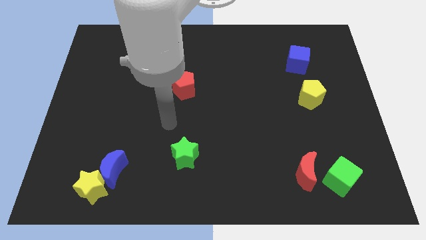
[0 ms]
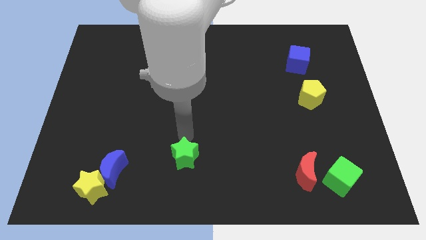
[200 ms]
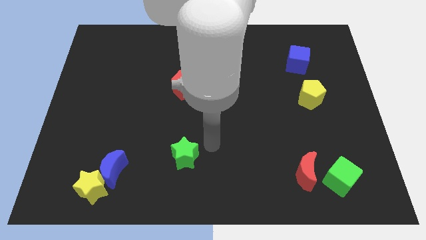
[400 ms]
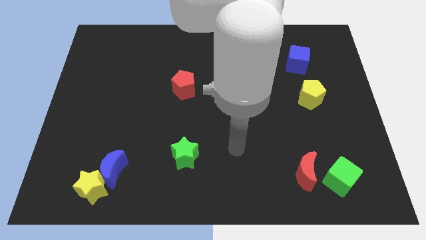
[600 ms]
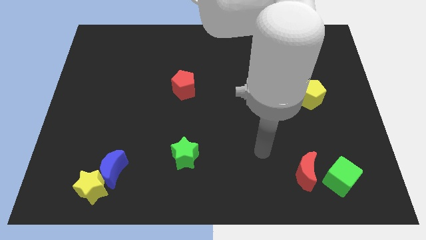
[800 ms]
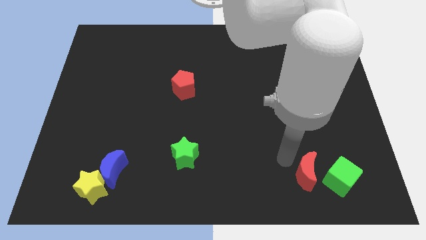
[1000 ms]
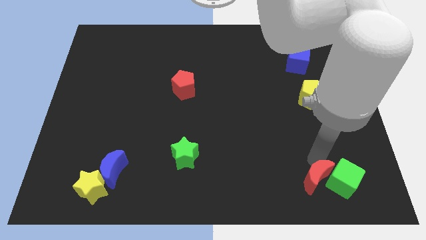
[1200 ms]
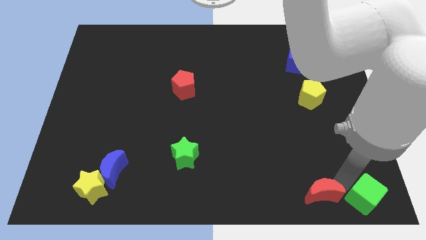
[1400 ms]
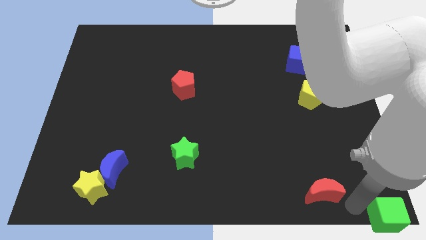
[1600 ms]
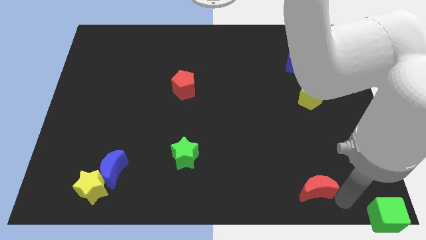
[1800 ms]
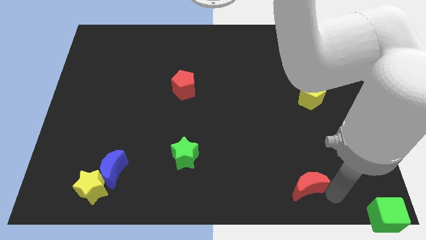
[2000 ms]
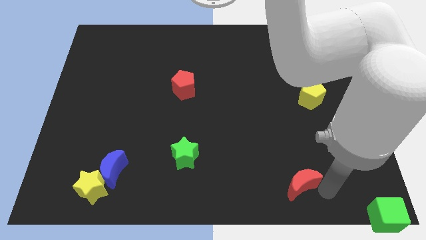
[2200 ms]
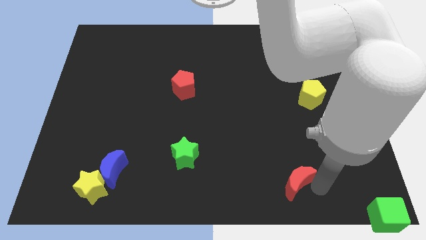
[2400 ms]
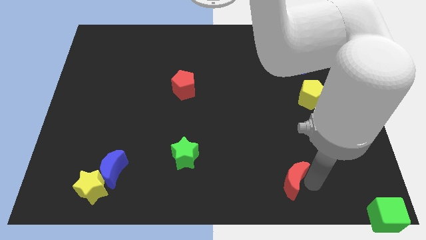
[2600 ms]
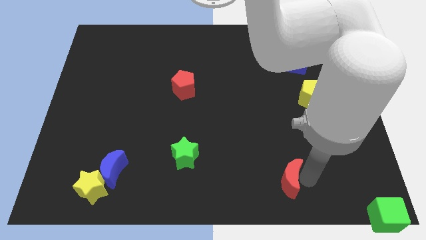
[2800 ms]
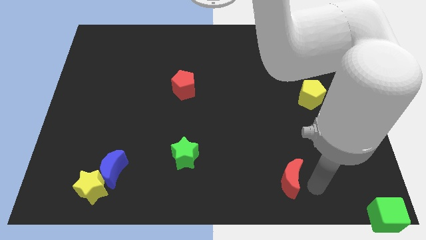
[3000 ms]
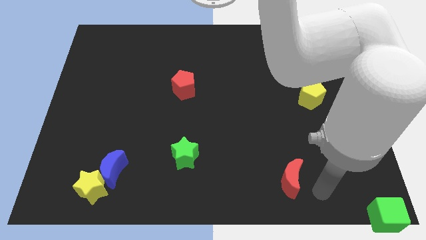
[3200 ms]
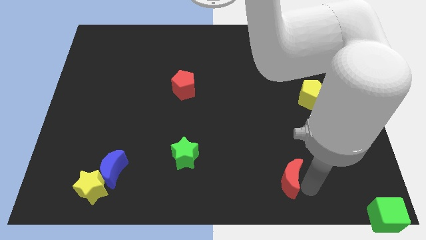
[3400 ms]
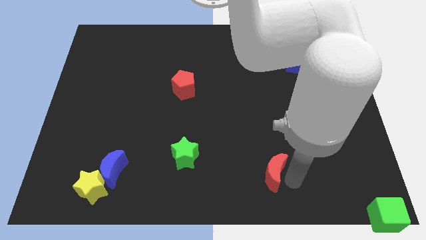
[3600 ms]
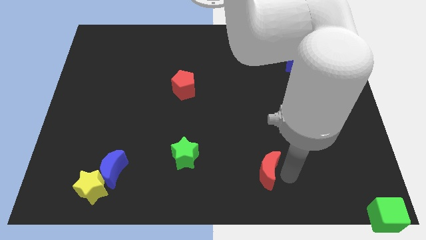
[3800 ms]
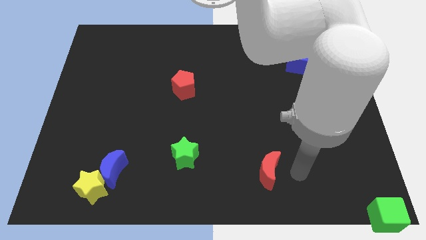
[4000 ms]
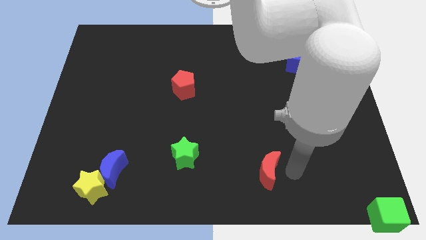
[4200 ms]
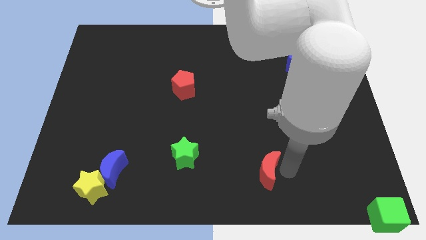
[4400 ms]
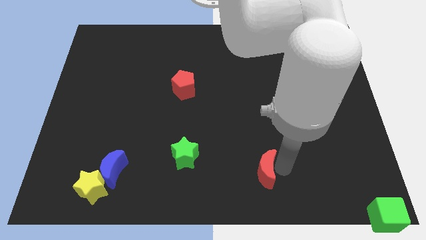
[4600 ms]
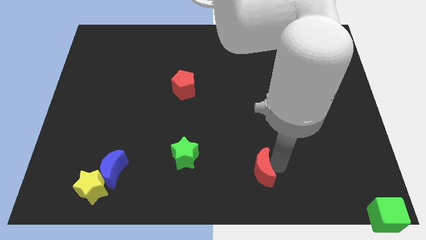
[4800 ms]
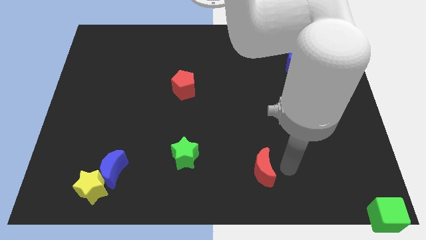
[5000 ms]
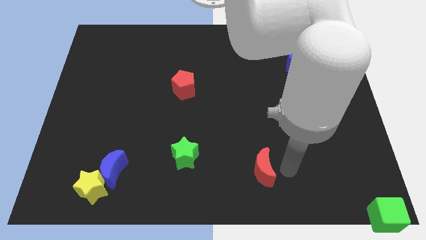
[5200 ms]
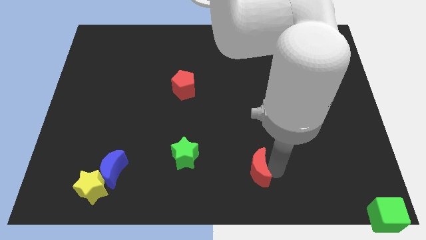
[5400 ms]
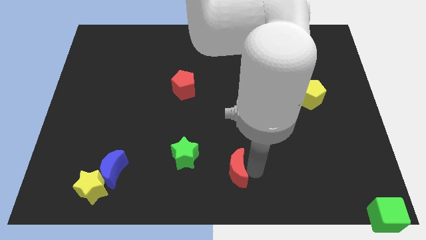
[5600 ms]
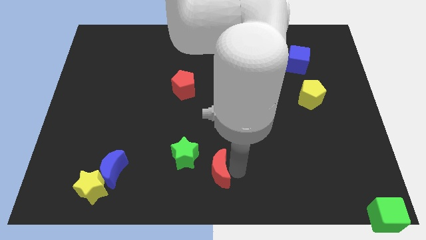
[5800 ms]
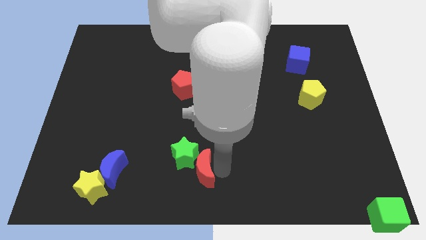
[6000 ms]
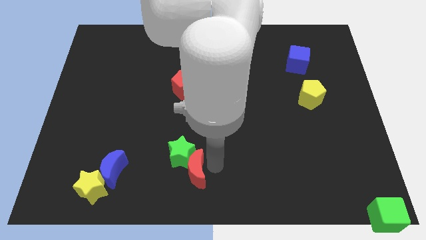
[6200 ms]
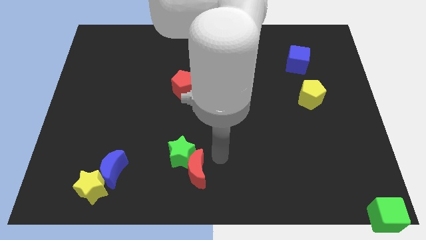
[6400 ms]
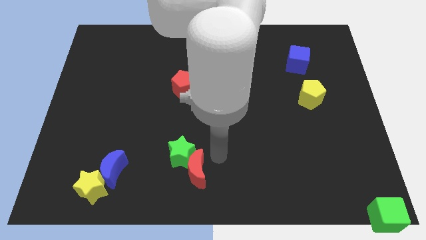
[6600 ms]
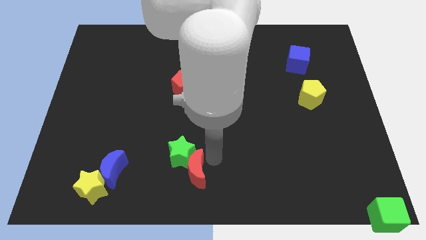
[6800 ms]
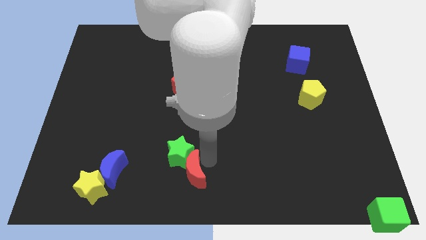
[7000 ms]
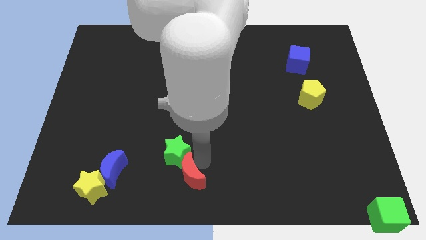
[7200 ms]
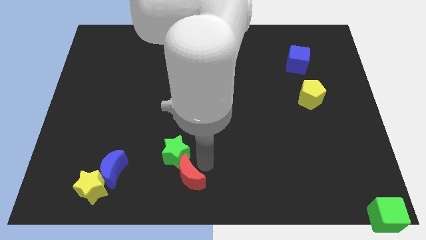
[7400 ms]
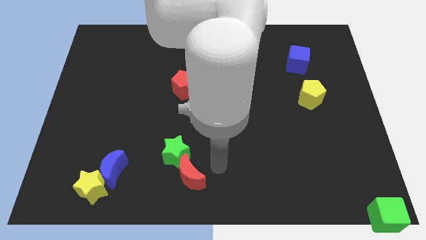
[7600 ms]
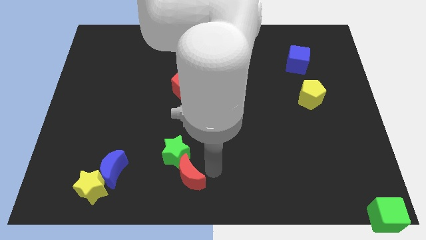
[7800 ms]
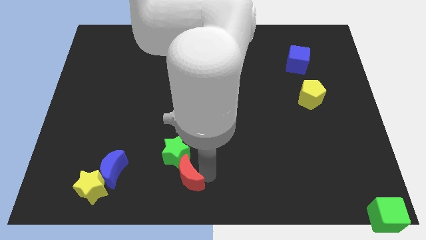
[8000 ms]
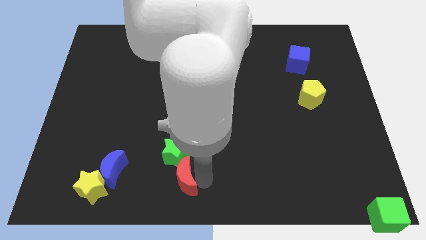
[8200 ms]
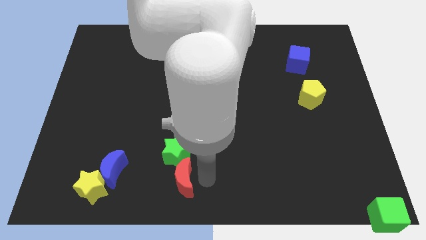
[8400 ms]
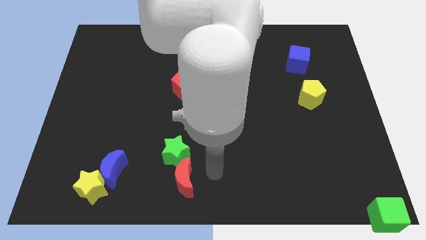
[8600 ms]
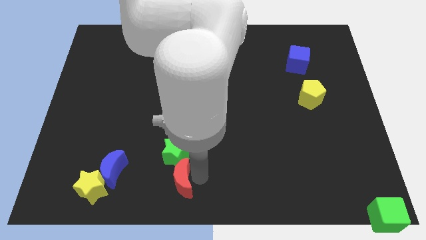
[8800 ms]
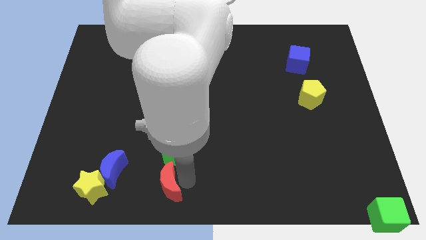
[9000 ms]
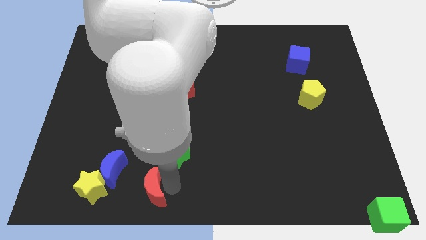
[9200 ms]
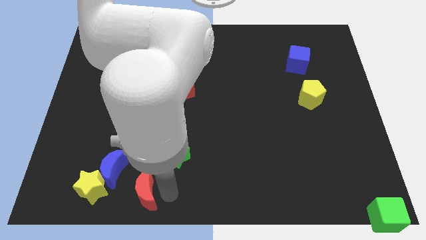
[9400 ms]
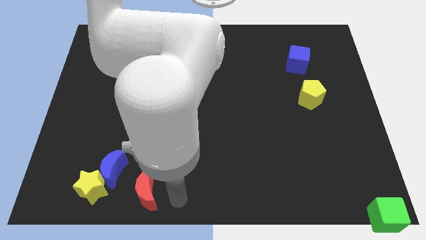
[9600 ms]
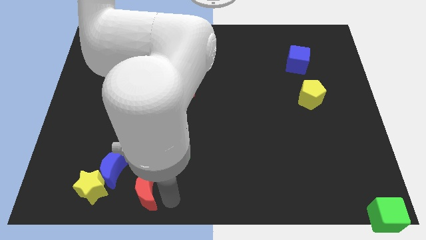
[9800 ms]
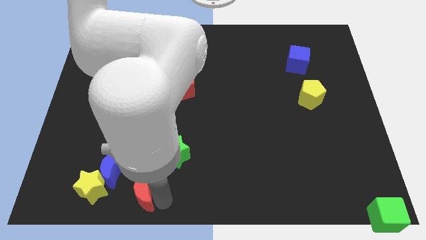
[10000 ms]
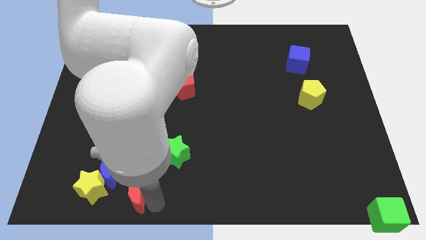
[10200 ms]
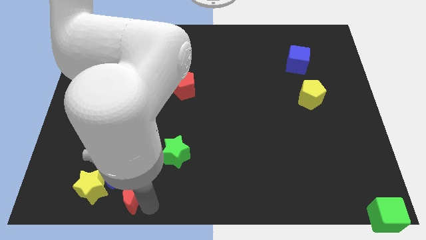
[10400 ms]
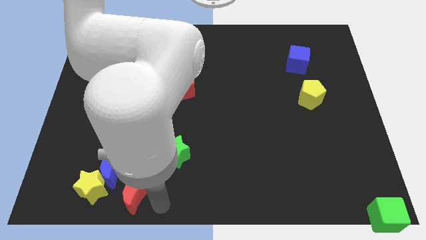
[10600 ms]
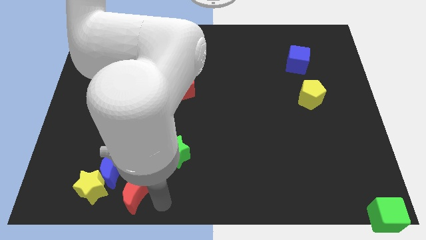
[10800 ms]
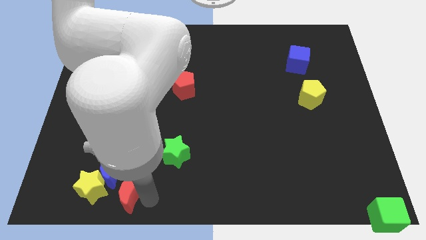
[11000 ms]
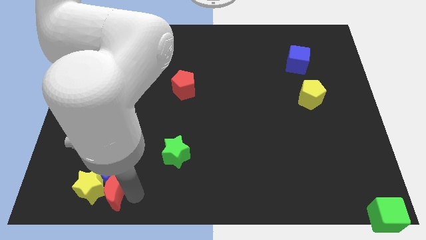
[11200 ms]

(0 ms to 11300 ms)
push the red moon towards the yellow star
